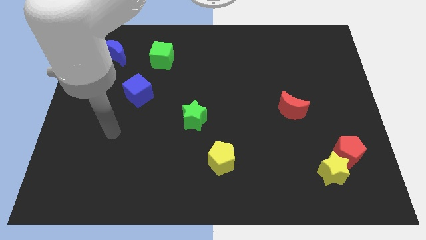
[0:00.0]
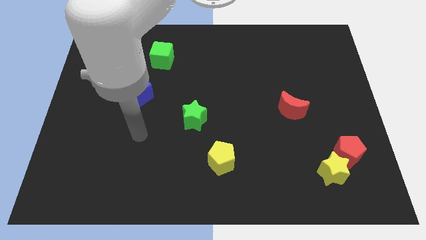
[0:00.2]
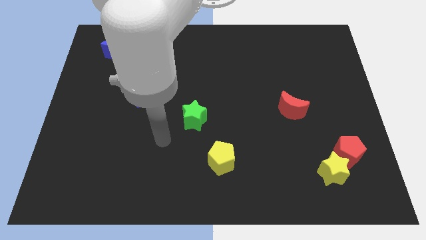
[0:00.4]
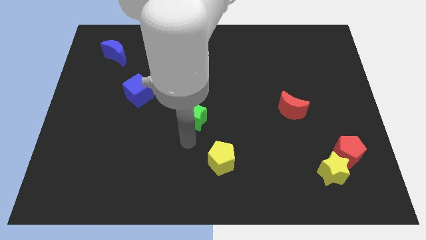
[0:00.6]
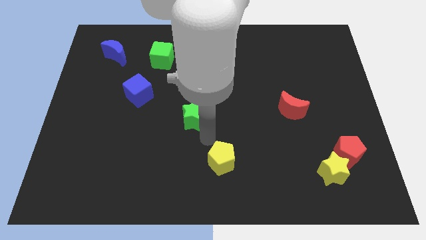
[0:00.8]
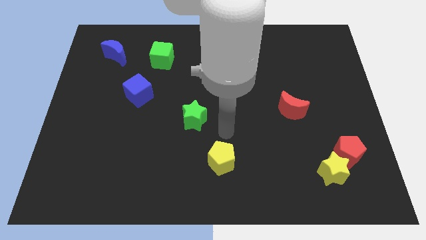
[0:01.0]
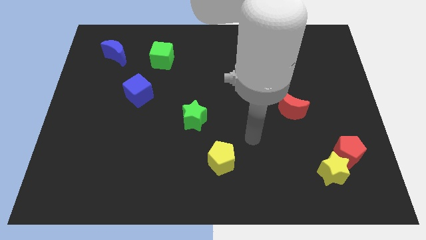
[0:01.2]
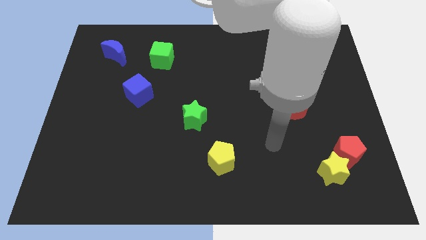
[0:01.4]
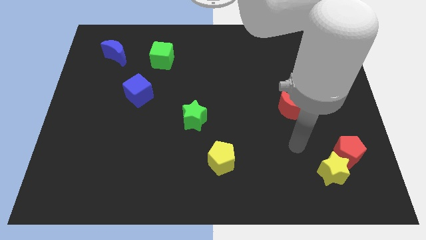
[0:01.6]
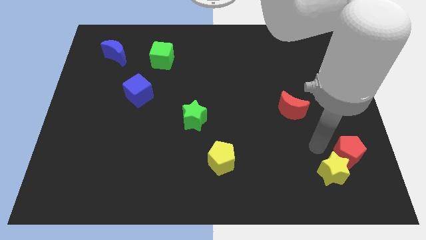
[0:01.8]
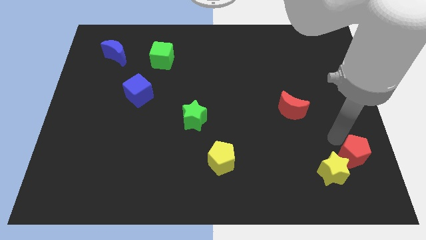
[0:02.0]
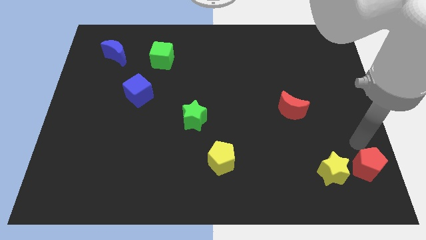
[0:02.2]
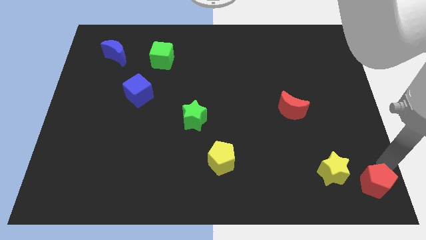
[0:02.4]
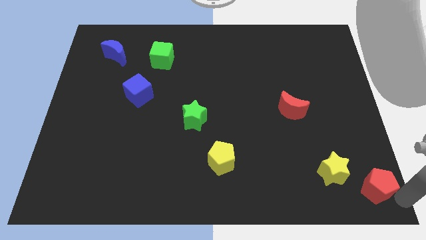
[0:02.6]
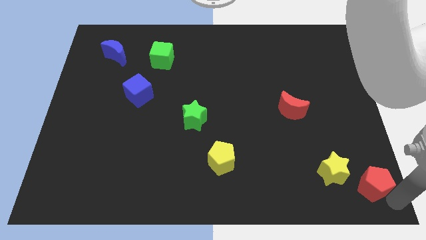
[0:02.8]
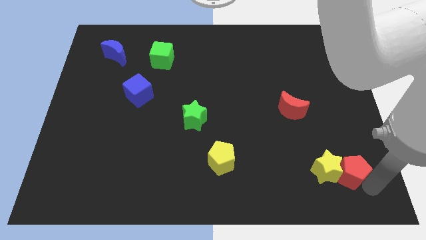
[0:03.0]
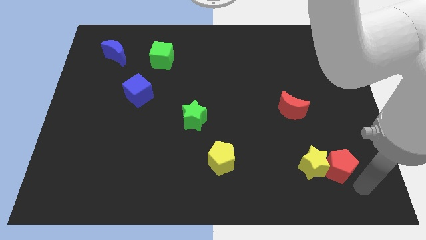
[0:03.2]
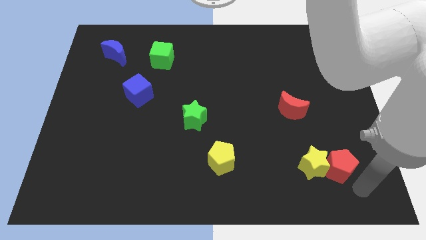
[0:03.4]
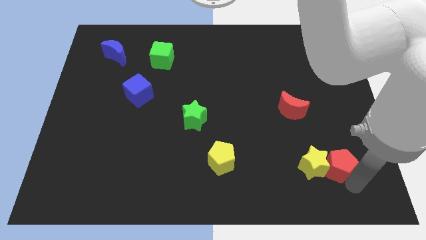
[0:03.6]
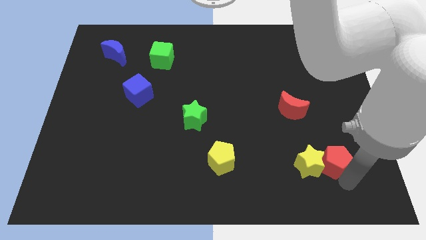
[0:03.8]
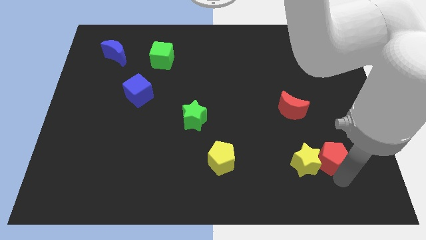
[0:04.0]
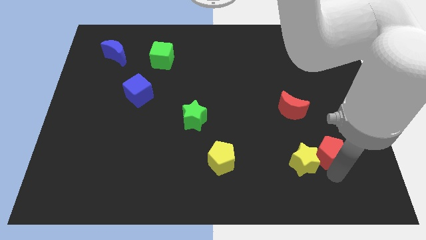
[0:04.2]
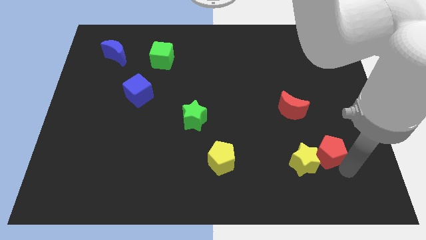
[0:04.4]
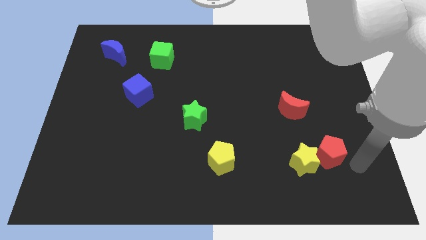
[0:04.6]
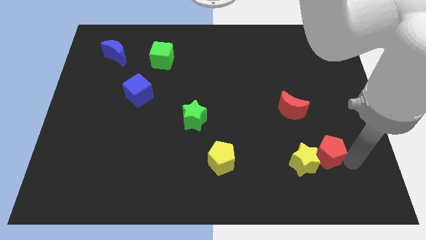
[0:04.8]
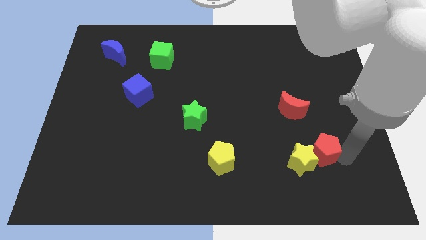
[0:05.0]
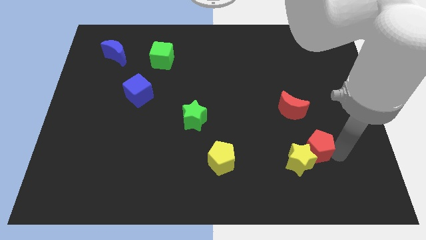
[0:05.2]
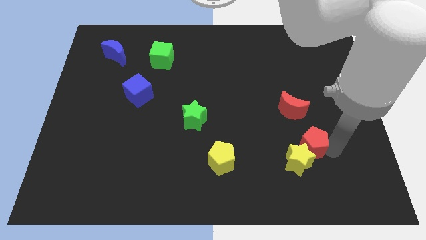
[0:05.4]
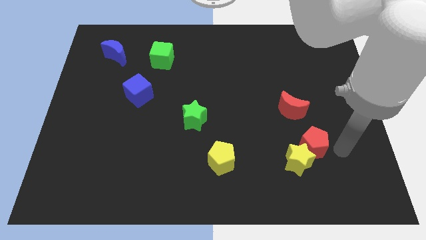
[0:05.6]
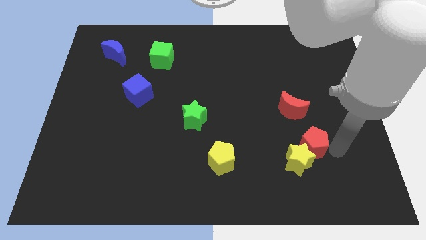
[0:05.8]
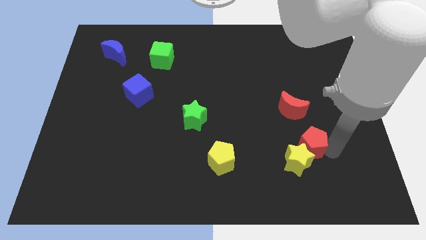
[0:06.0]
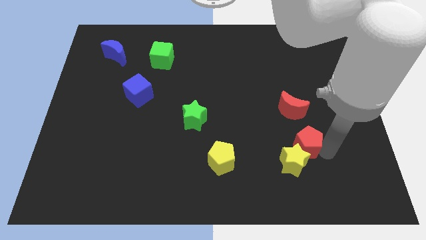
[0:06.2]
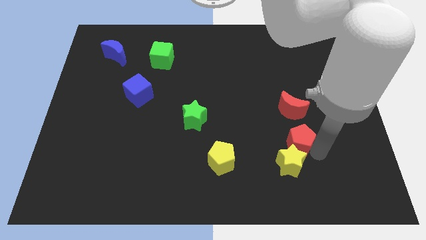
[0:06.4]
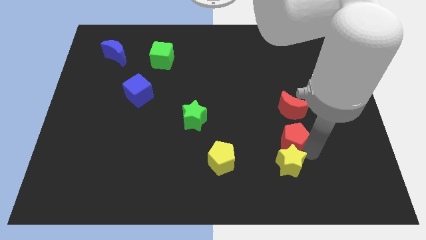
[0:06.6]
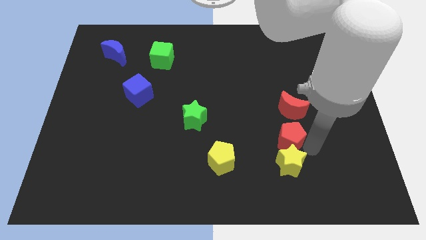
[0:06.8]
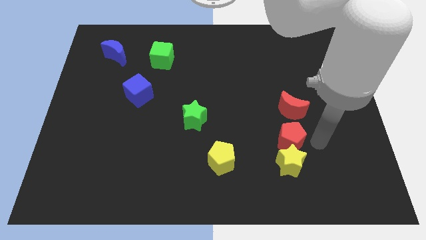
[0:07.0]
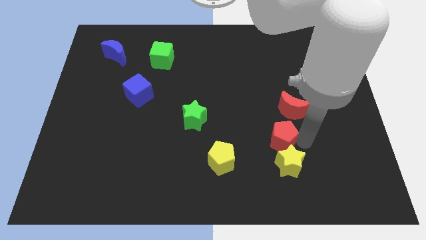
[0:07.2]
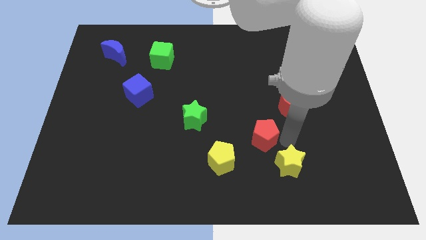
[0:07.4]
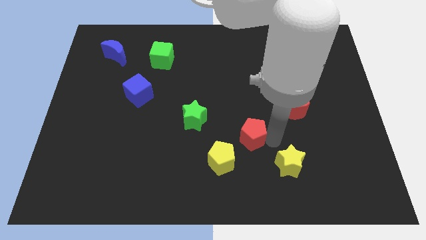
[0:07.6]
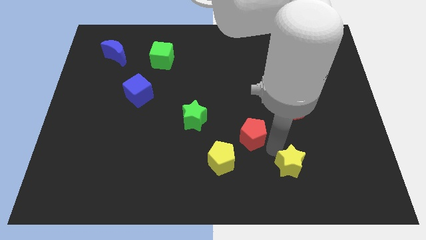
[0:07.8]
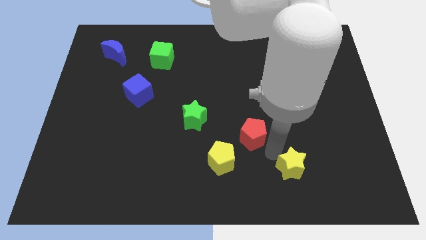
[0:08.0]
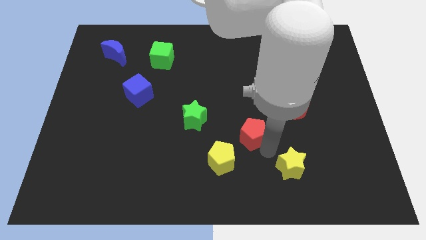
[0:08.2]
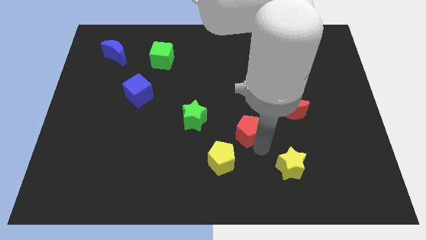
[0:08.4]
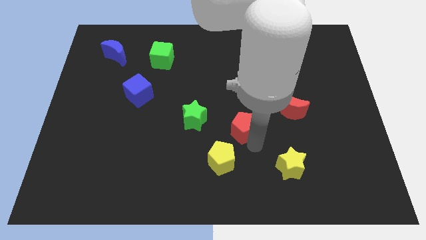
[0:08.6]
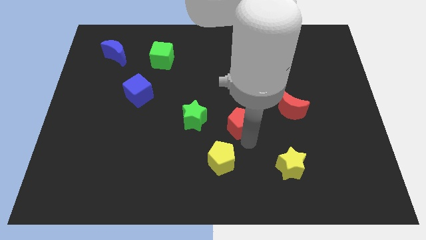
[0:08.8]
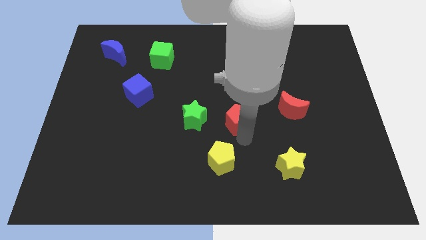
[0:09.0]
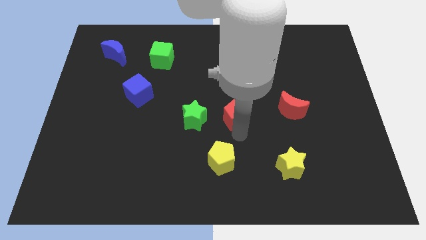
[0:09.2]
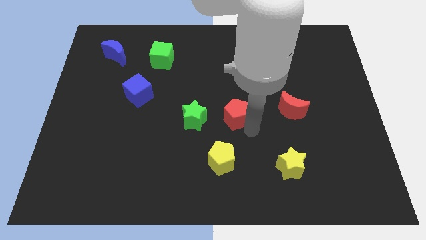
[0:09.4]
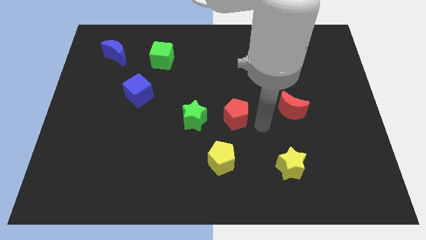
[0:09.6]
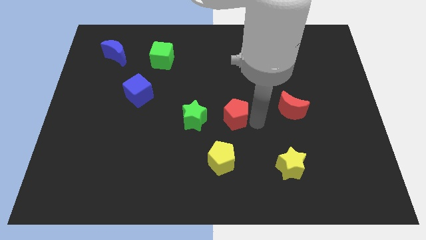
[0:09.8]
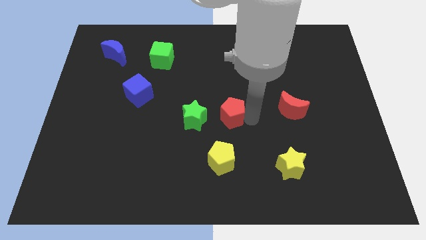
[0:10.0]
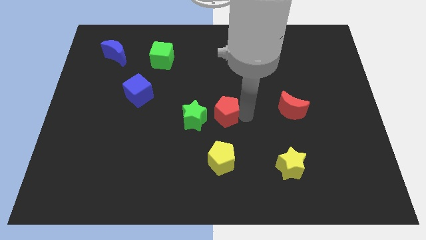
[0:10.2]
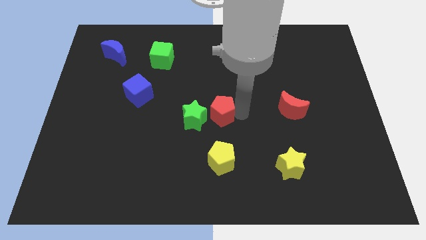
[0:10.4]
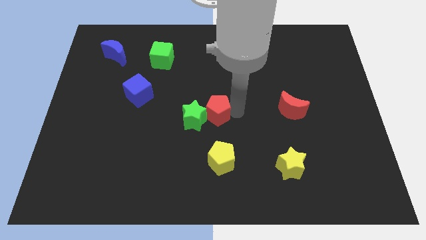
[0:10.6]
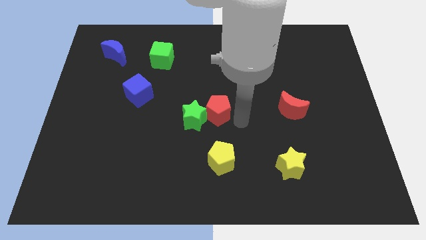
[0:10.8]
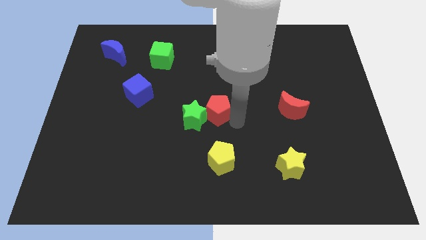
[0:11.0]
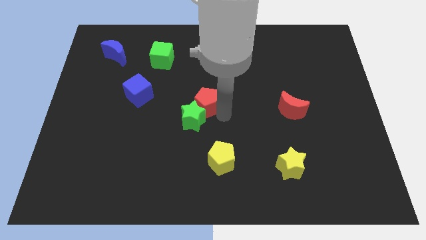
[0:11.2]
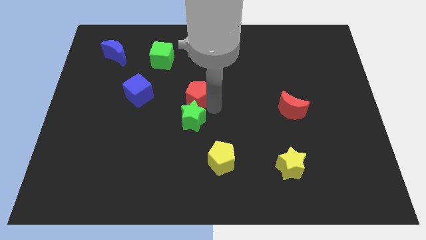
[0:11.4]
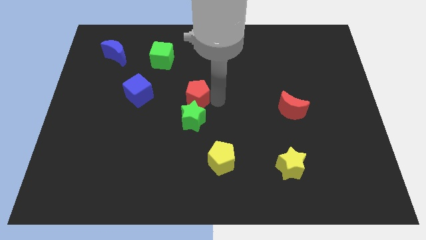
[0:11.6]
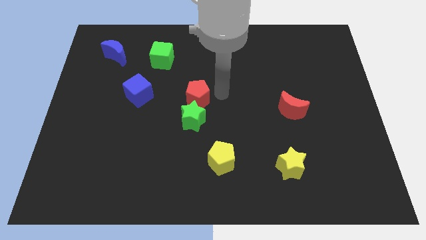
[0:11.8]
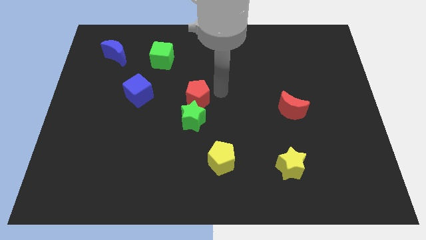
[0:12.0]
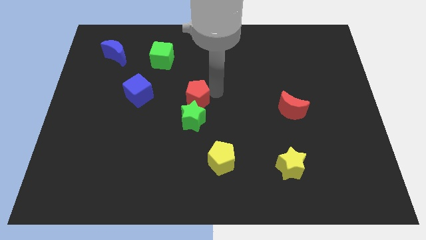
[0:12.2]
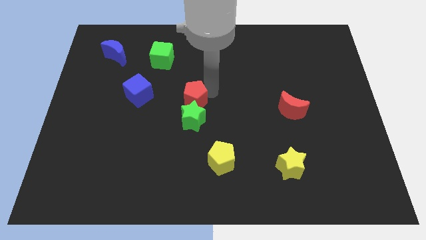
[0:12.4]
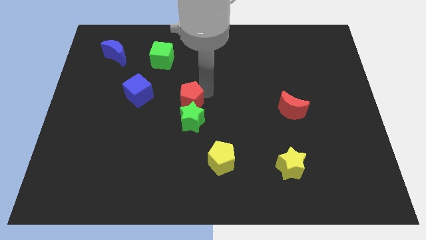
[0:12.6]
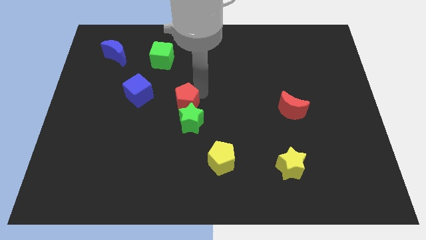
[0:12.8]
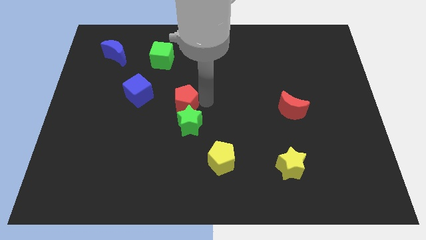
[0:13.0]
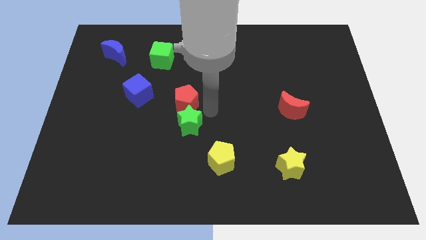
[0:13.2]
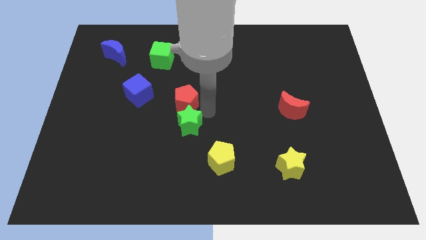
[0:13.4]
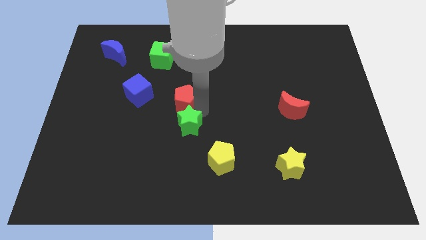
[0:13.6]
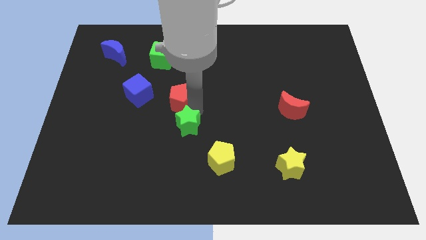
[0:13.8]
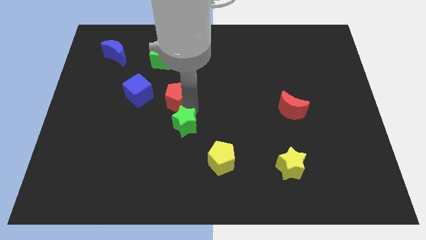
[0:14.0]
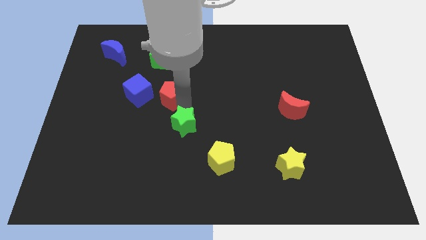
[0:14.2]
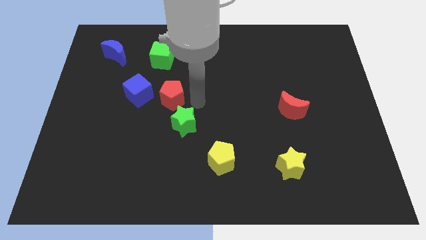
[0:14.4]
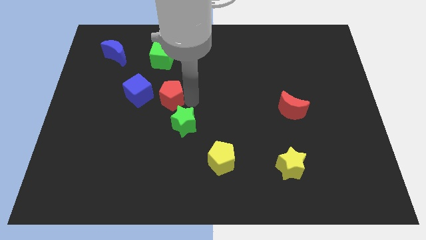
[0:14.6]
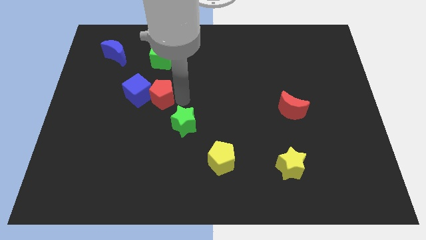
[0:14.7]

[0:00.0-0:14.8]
put the red pentagon close to the blue cube
